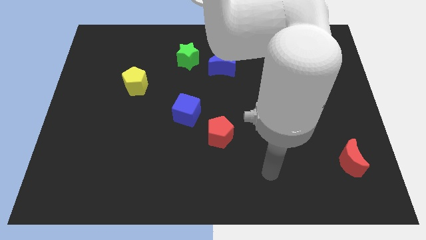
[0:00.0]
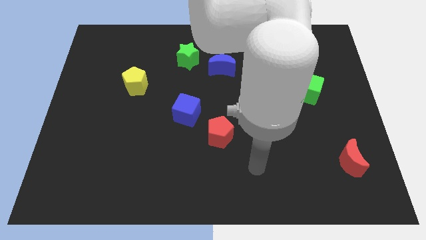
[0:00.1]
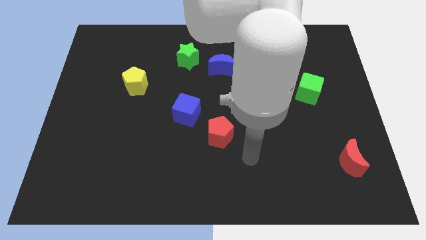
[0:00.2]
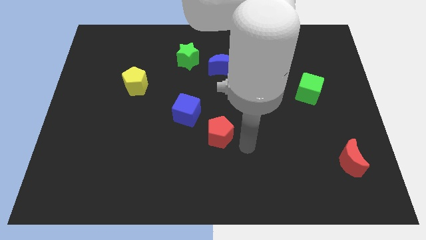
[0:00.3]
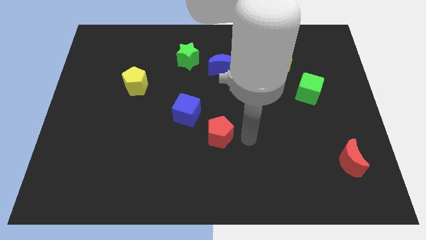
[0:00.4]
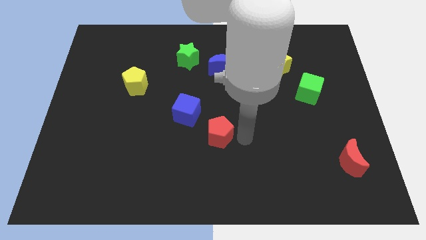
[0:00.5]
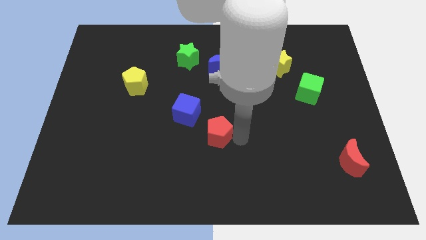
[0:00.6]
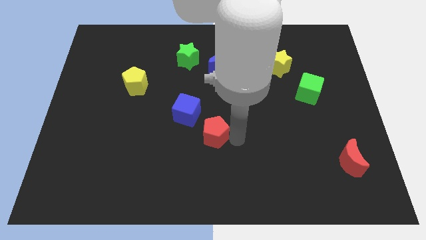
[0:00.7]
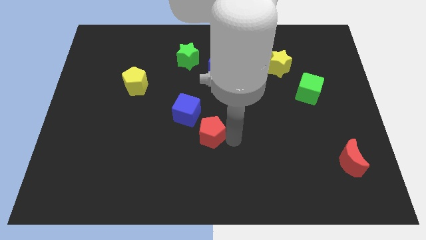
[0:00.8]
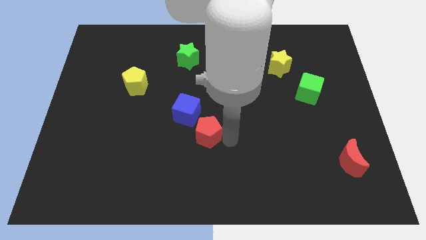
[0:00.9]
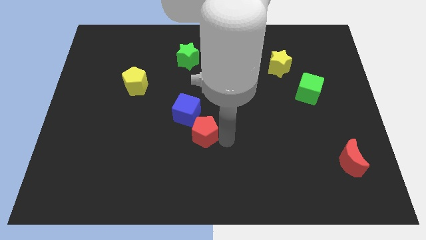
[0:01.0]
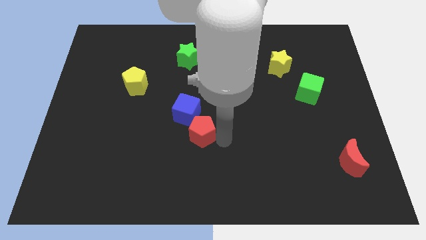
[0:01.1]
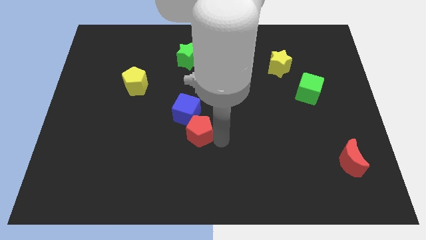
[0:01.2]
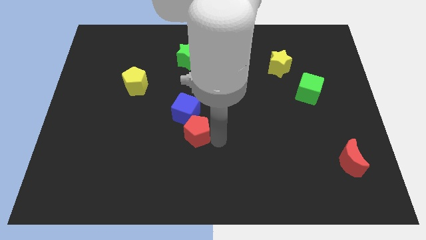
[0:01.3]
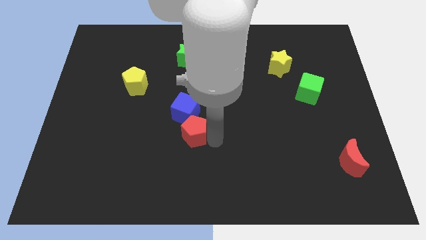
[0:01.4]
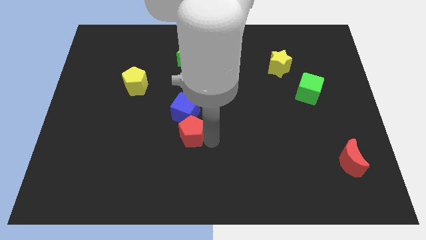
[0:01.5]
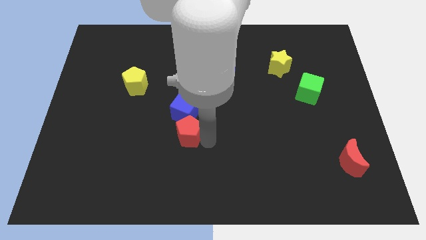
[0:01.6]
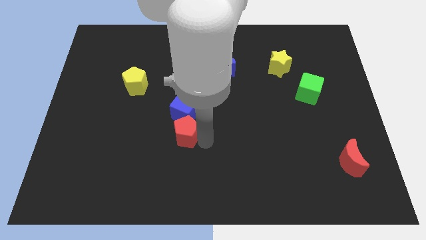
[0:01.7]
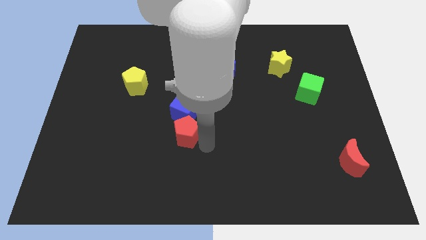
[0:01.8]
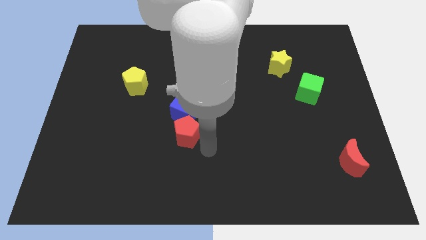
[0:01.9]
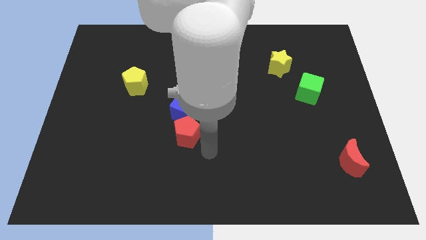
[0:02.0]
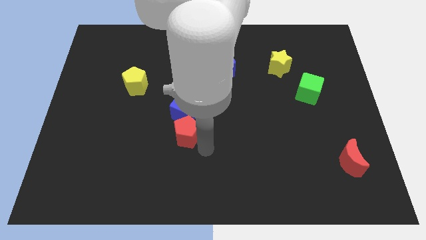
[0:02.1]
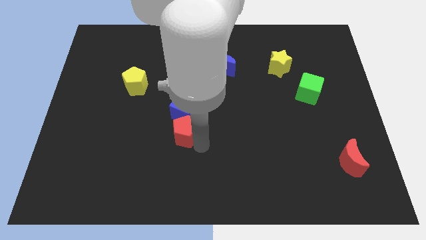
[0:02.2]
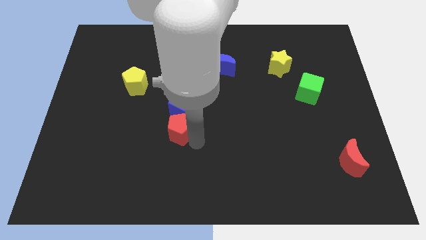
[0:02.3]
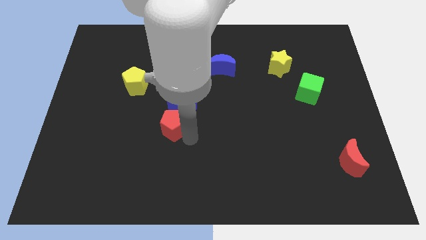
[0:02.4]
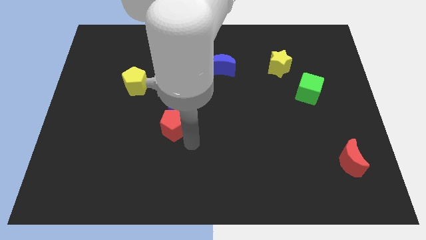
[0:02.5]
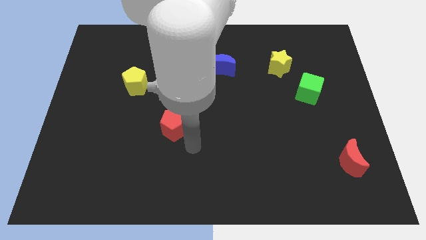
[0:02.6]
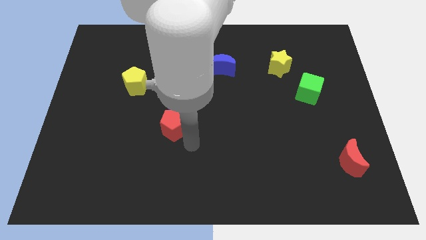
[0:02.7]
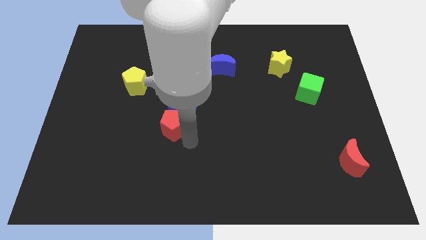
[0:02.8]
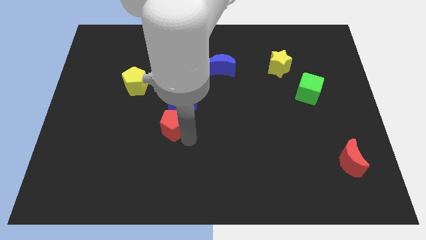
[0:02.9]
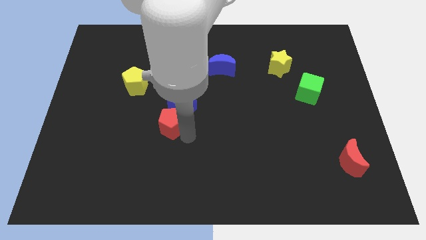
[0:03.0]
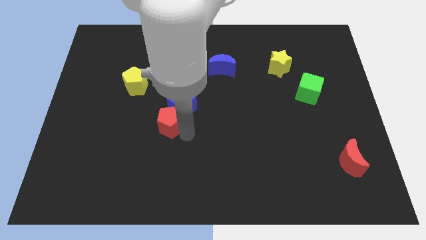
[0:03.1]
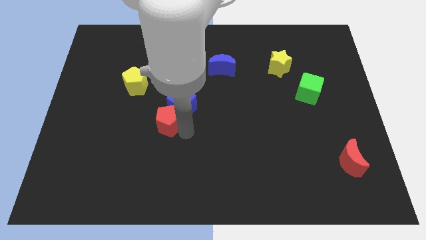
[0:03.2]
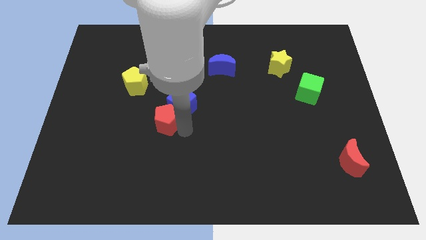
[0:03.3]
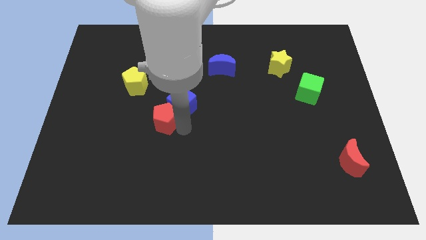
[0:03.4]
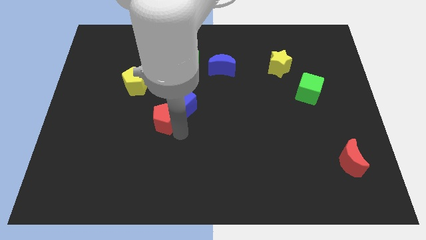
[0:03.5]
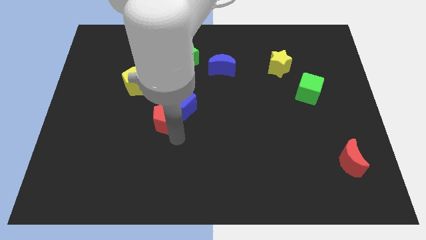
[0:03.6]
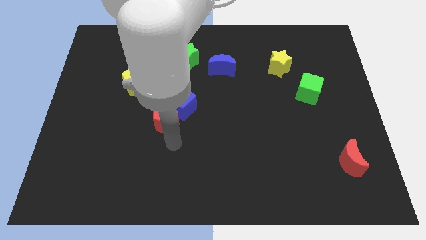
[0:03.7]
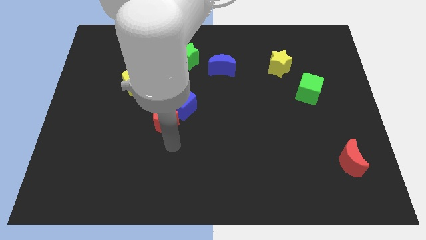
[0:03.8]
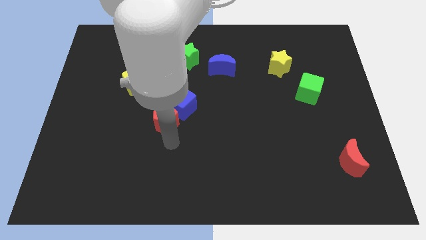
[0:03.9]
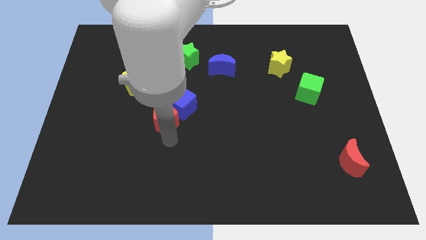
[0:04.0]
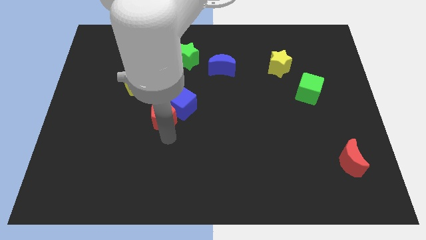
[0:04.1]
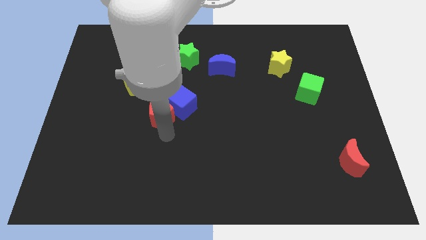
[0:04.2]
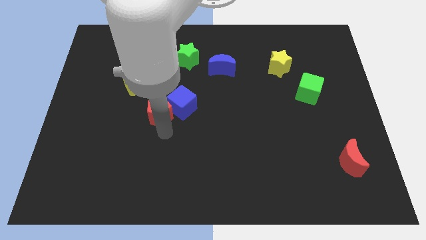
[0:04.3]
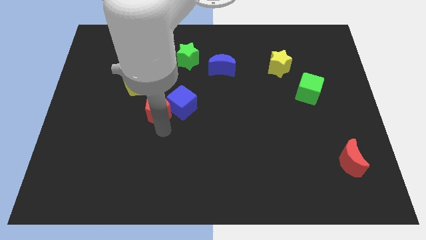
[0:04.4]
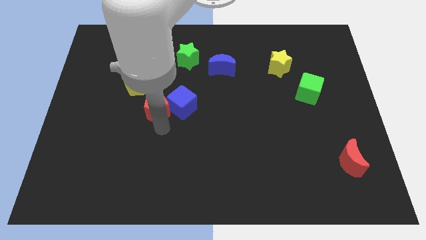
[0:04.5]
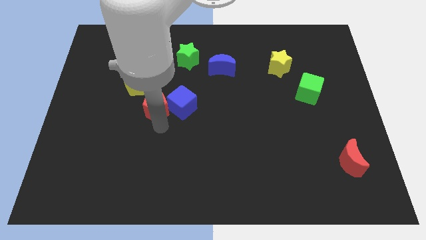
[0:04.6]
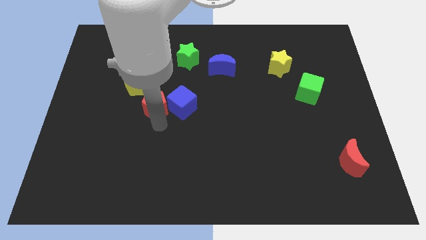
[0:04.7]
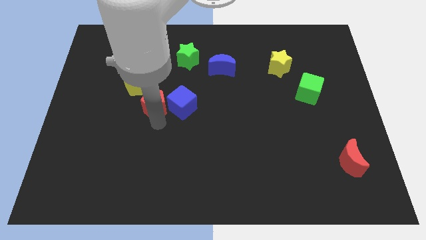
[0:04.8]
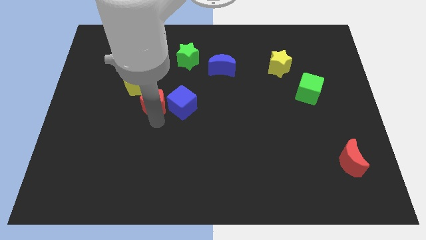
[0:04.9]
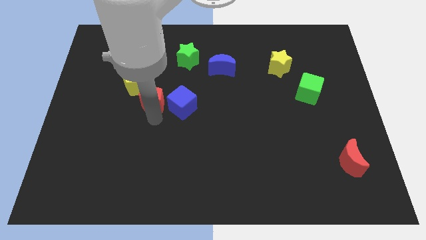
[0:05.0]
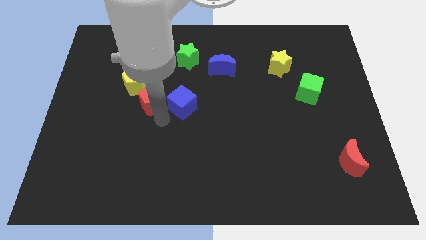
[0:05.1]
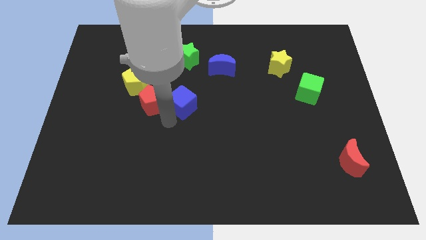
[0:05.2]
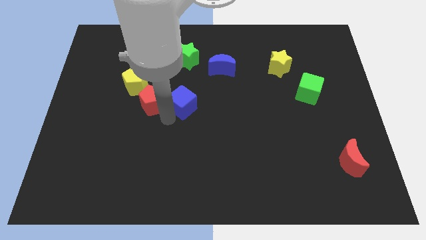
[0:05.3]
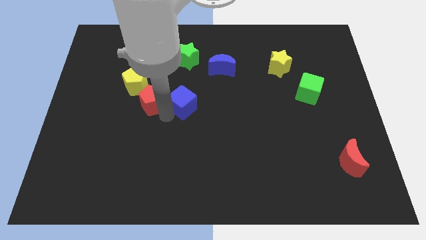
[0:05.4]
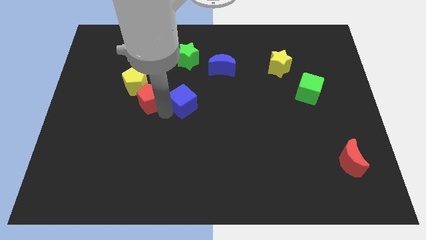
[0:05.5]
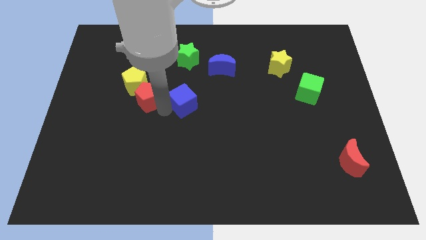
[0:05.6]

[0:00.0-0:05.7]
put the red pentagon close to the yellow pentagon

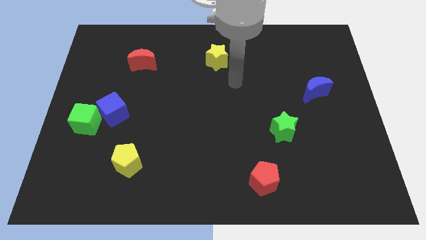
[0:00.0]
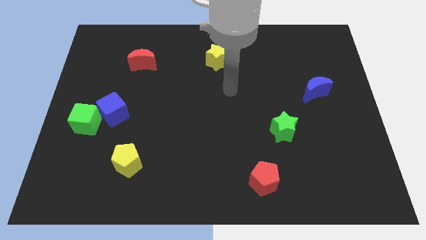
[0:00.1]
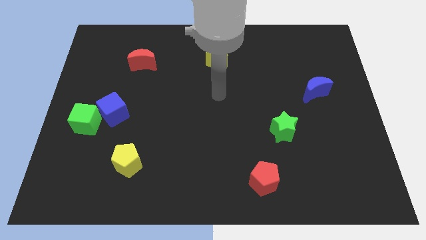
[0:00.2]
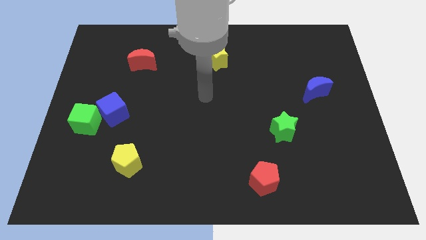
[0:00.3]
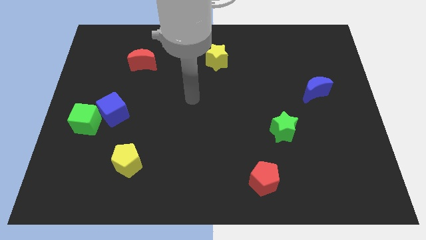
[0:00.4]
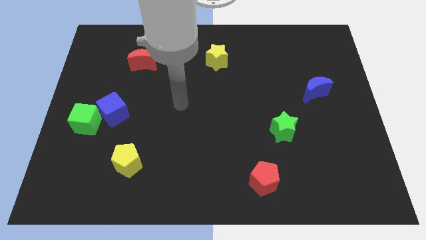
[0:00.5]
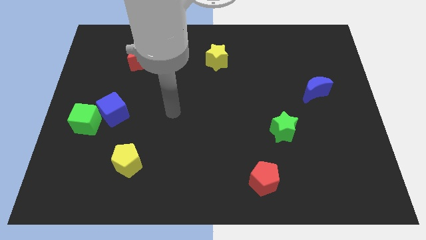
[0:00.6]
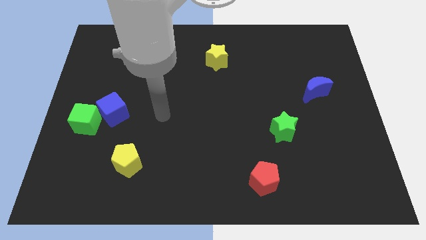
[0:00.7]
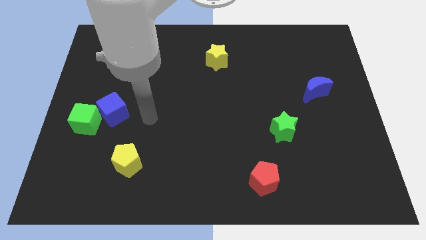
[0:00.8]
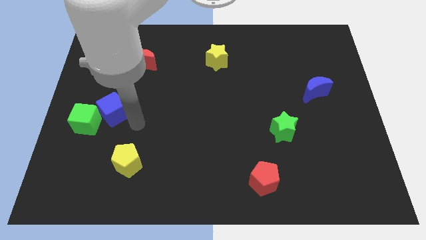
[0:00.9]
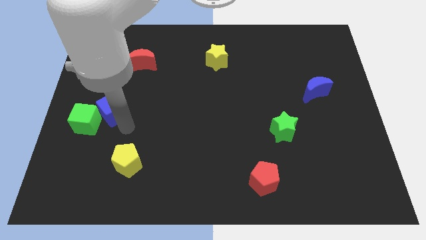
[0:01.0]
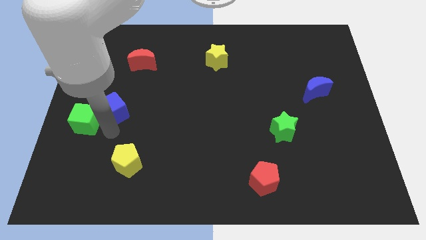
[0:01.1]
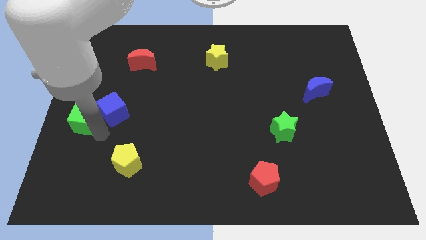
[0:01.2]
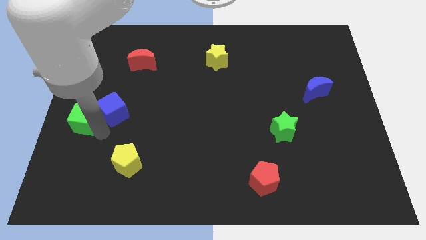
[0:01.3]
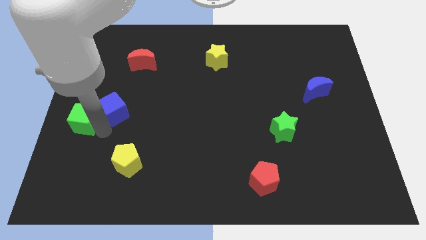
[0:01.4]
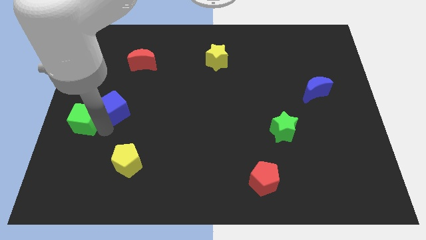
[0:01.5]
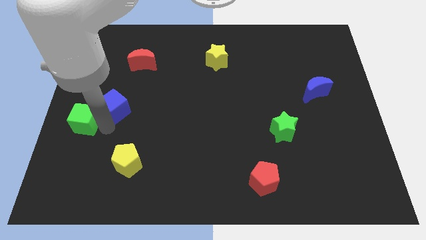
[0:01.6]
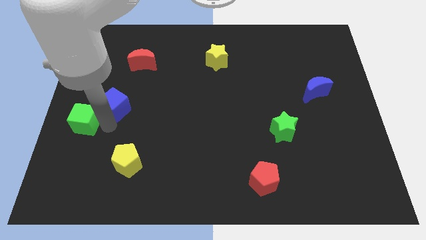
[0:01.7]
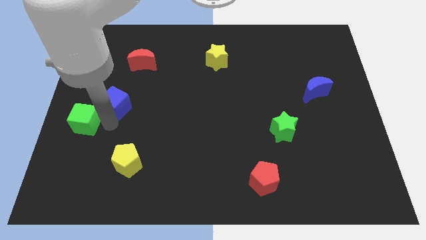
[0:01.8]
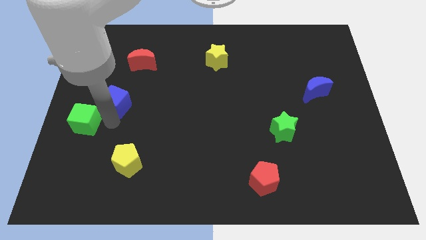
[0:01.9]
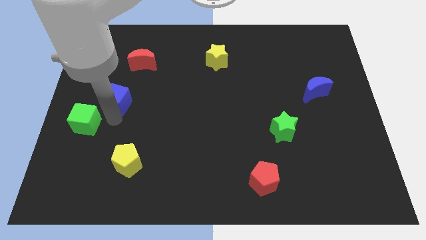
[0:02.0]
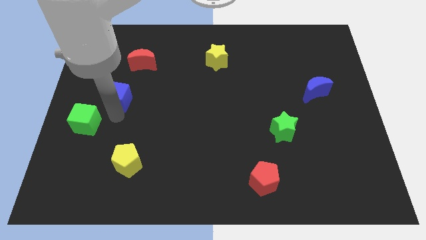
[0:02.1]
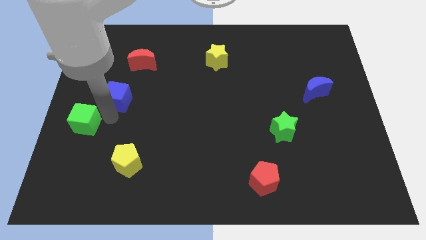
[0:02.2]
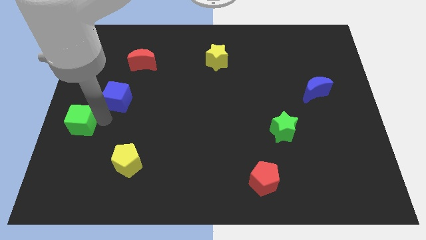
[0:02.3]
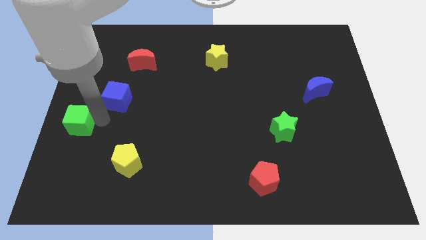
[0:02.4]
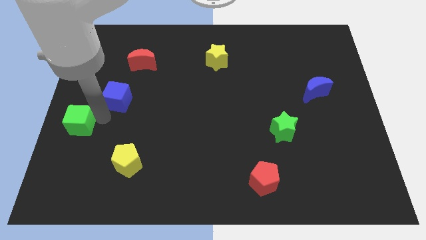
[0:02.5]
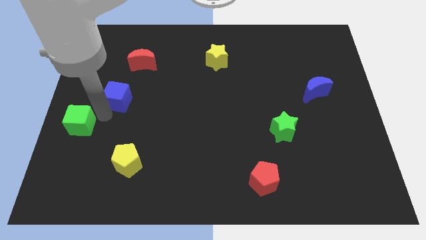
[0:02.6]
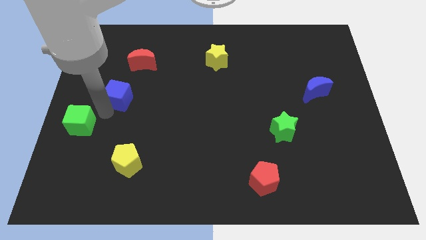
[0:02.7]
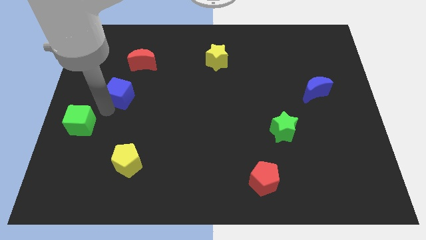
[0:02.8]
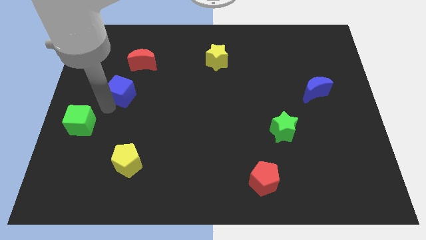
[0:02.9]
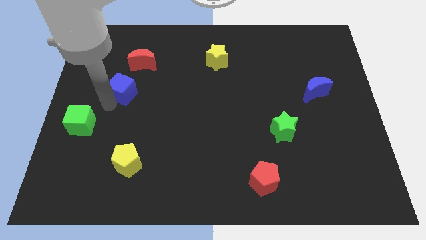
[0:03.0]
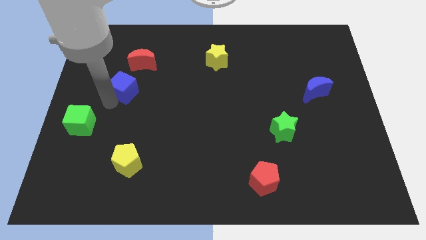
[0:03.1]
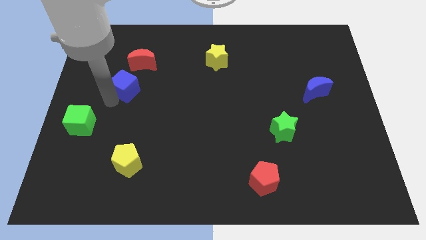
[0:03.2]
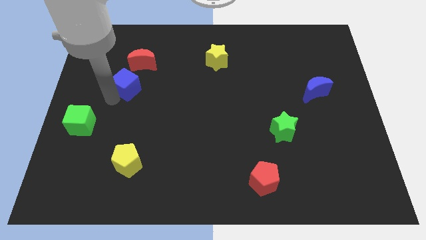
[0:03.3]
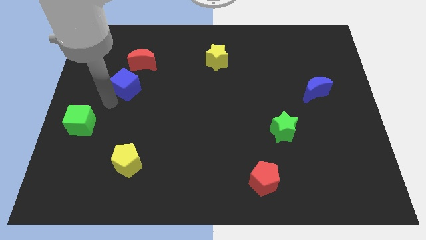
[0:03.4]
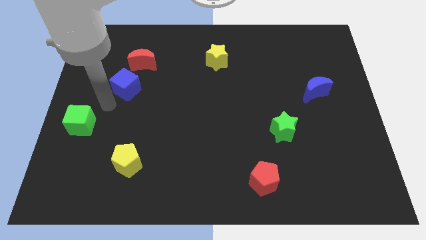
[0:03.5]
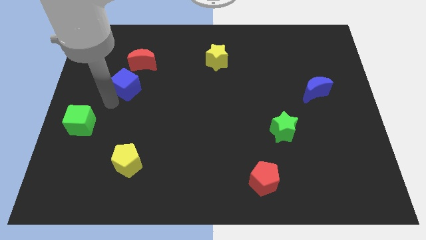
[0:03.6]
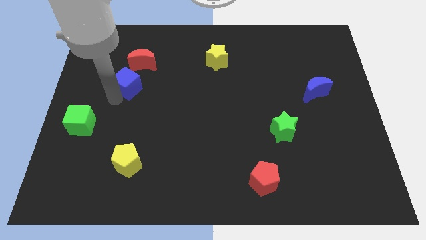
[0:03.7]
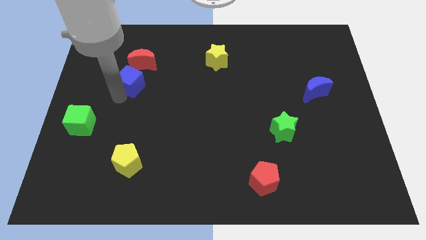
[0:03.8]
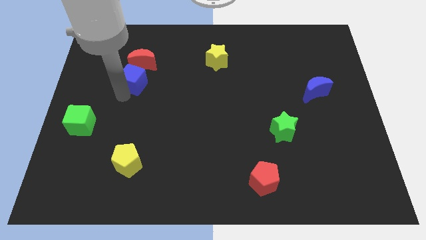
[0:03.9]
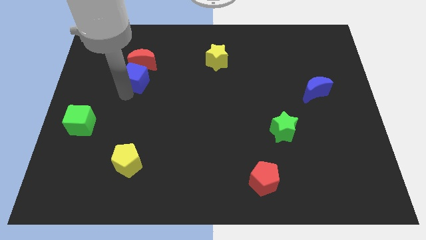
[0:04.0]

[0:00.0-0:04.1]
put the blue cube close to the red moon
